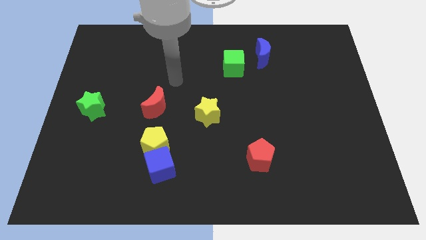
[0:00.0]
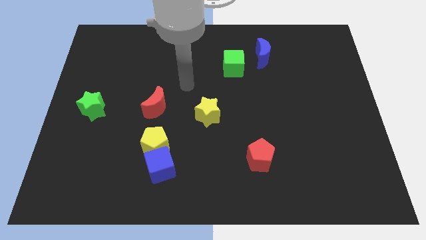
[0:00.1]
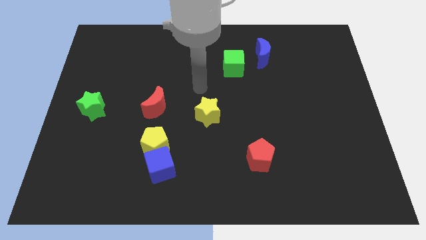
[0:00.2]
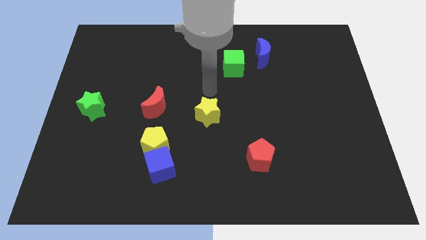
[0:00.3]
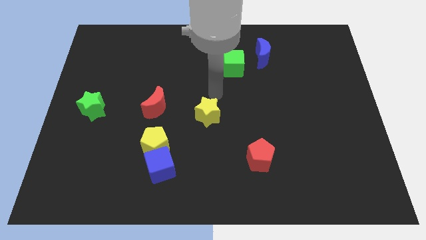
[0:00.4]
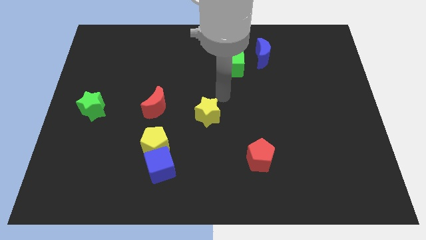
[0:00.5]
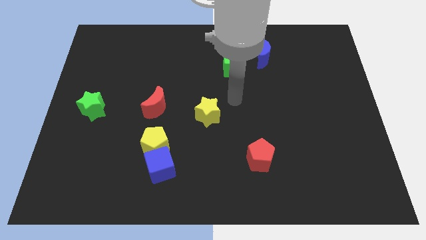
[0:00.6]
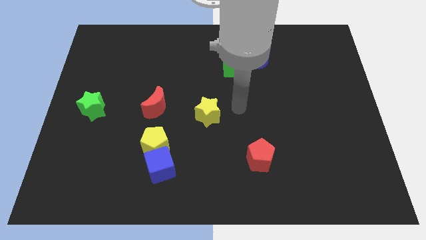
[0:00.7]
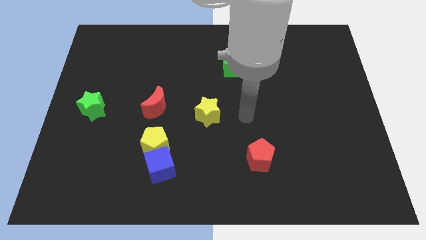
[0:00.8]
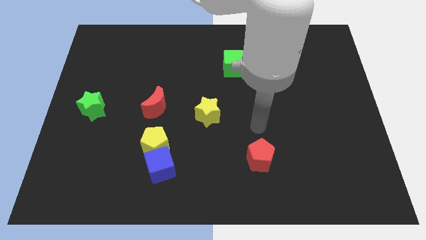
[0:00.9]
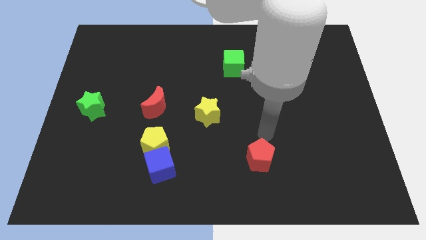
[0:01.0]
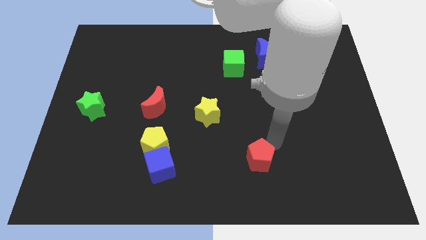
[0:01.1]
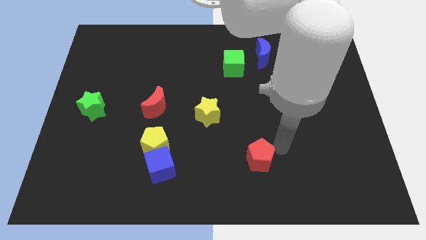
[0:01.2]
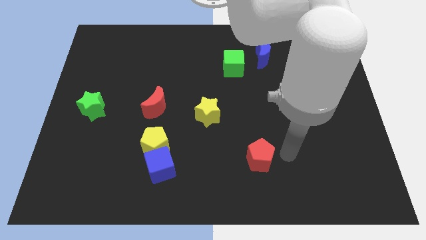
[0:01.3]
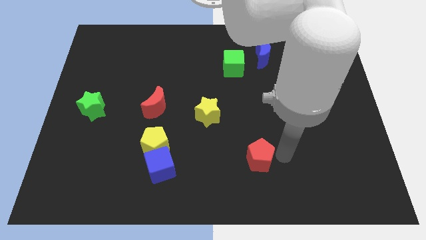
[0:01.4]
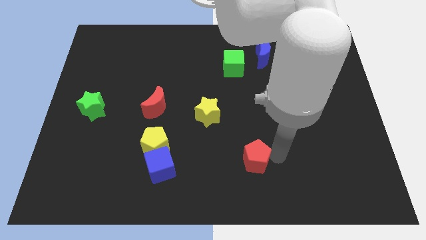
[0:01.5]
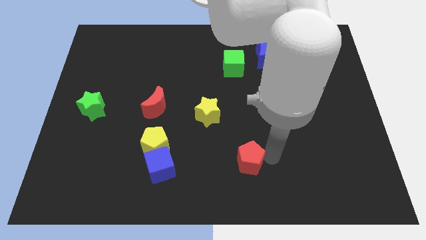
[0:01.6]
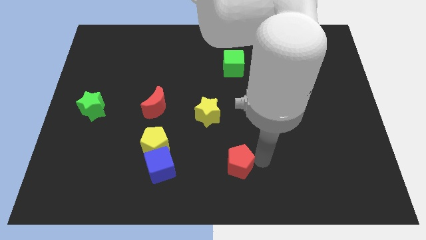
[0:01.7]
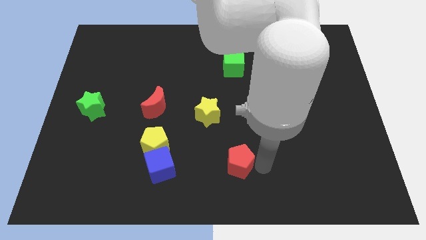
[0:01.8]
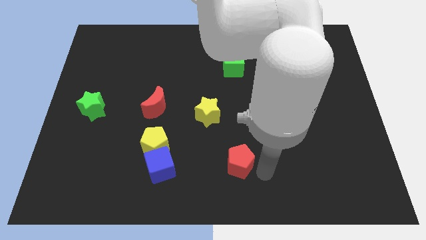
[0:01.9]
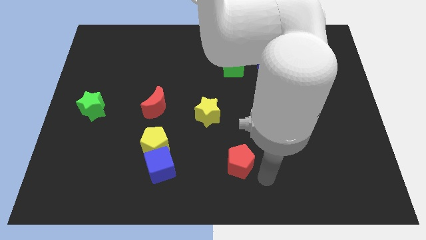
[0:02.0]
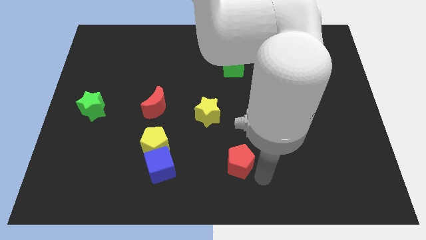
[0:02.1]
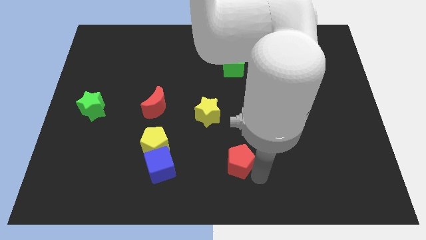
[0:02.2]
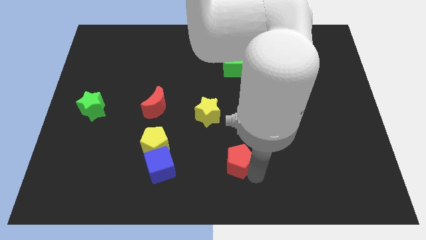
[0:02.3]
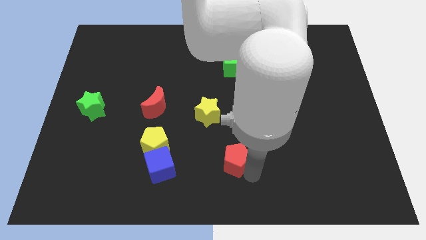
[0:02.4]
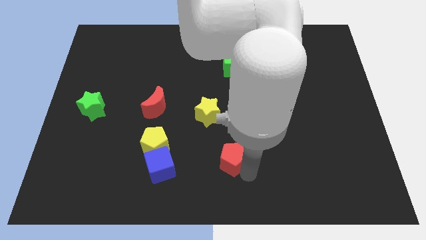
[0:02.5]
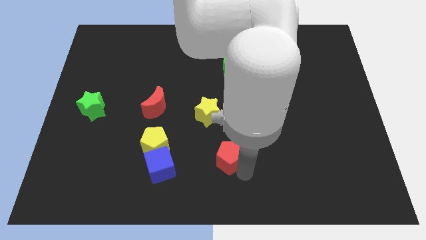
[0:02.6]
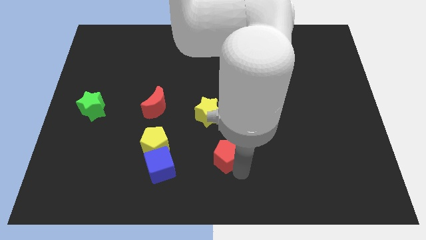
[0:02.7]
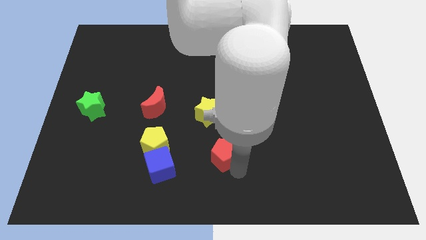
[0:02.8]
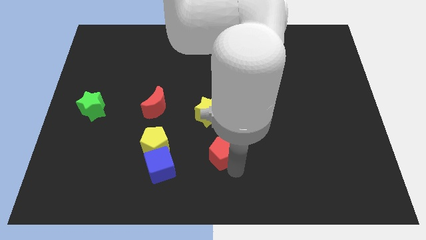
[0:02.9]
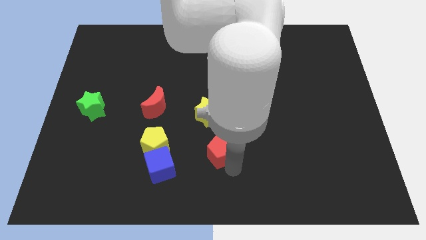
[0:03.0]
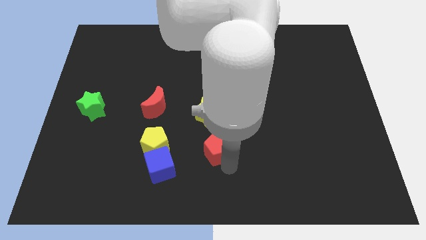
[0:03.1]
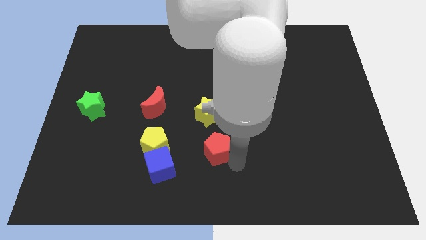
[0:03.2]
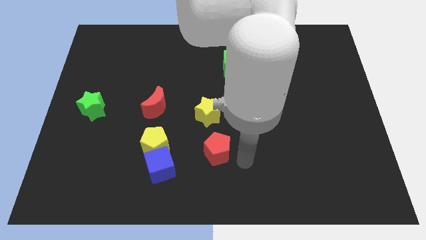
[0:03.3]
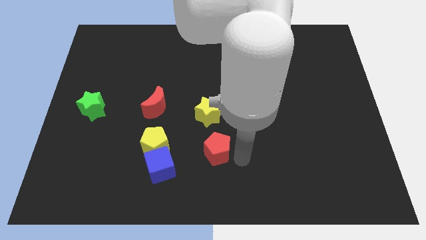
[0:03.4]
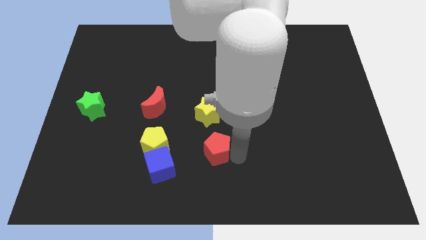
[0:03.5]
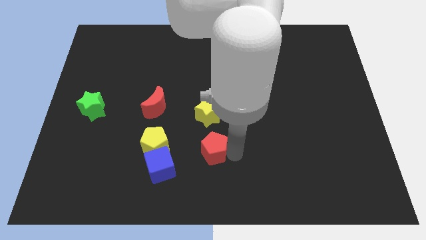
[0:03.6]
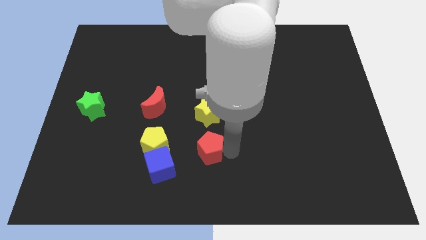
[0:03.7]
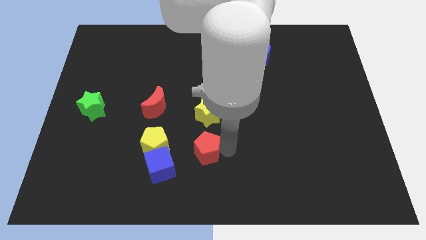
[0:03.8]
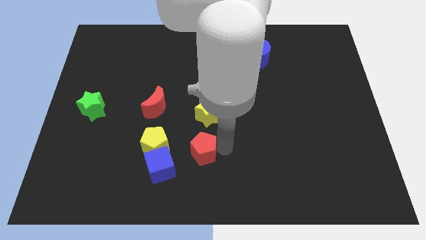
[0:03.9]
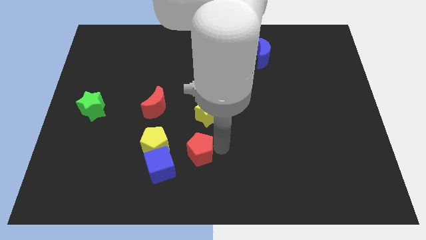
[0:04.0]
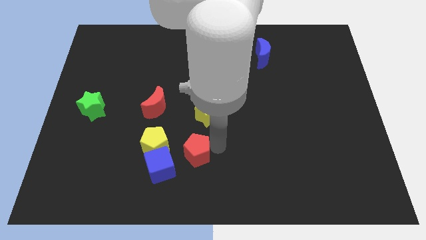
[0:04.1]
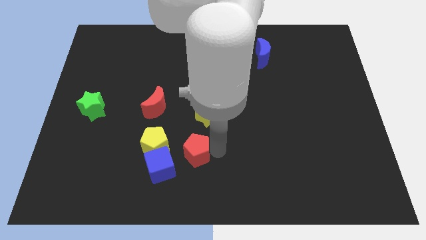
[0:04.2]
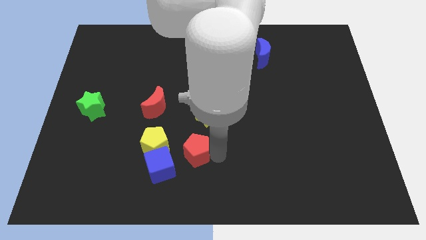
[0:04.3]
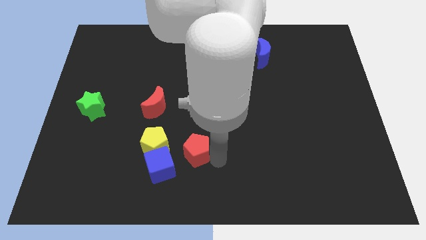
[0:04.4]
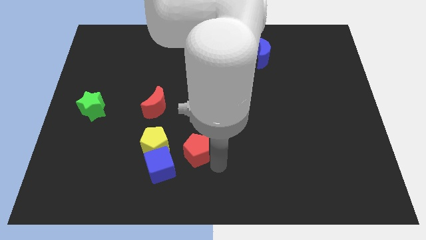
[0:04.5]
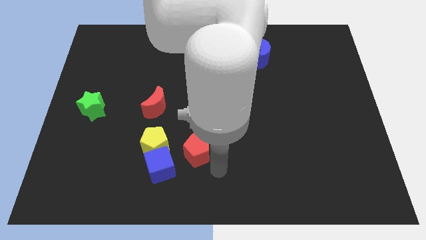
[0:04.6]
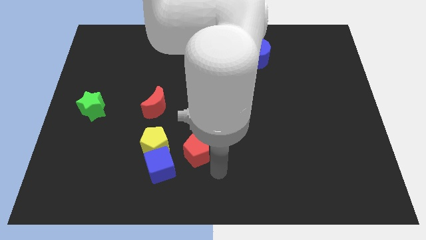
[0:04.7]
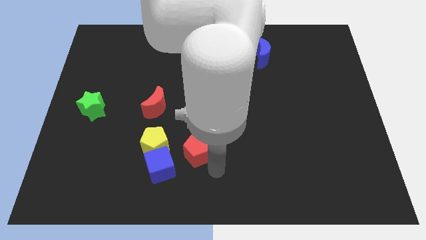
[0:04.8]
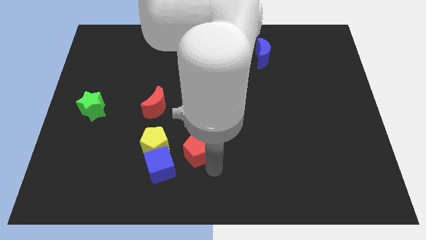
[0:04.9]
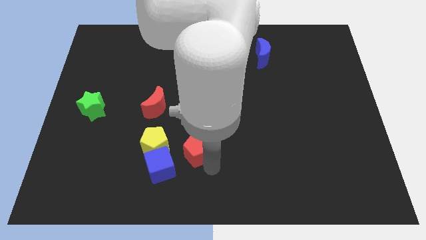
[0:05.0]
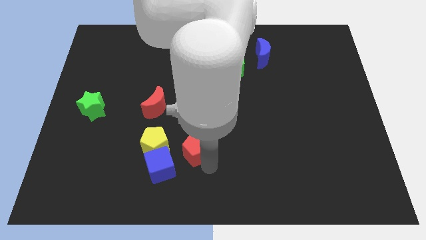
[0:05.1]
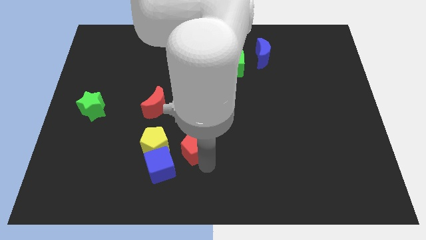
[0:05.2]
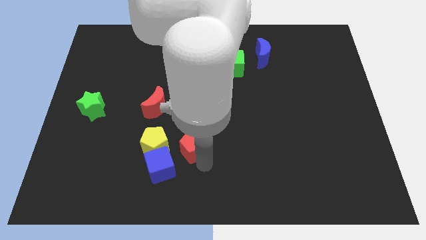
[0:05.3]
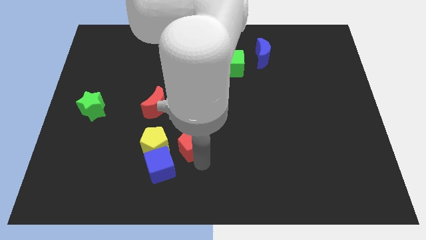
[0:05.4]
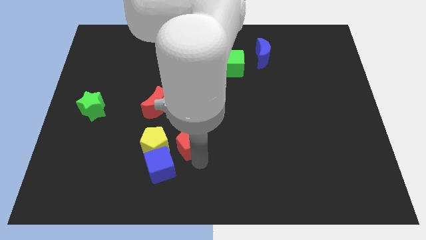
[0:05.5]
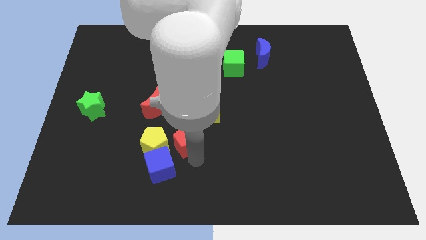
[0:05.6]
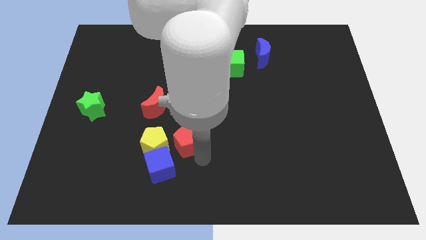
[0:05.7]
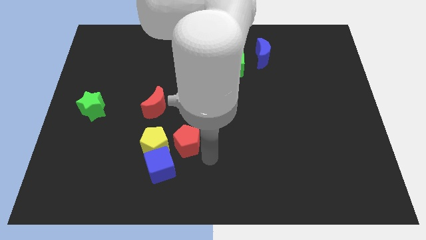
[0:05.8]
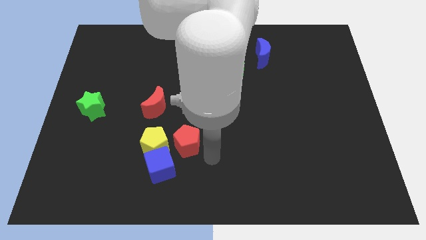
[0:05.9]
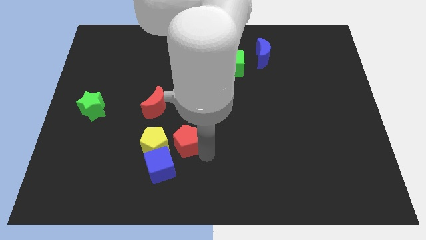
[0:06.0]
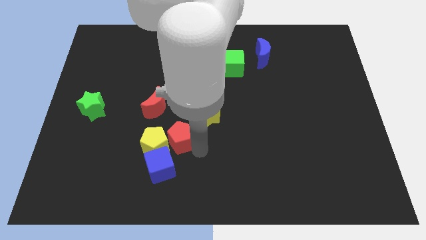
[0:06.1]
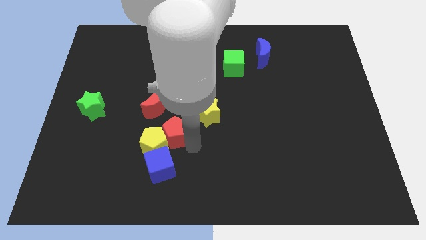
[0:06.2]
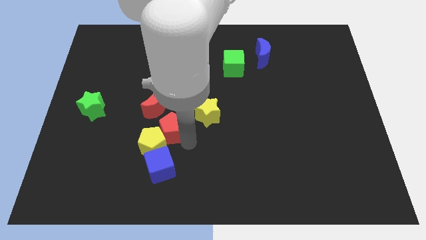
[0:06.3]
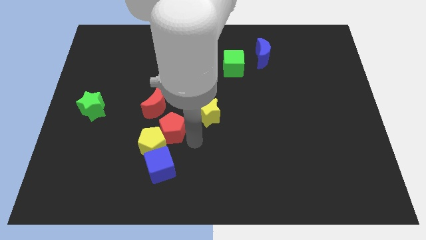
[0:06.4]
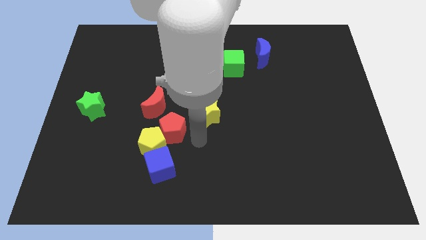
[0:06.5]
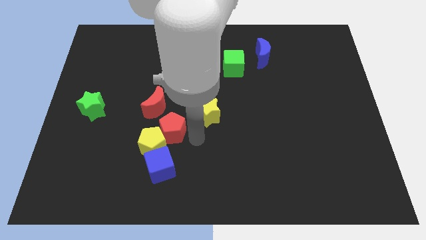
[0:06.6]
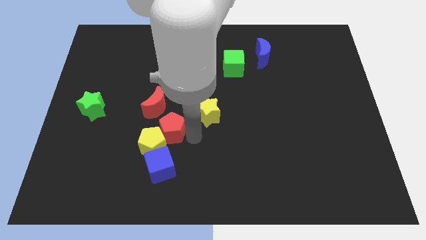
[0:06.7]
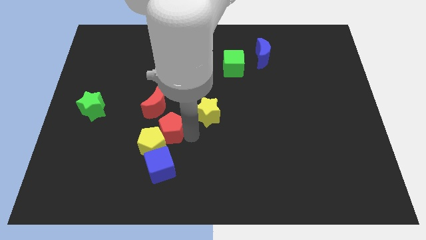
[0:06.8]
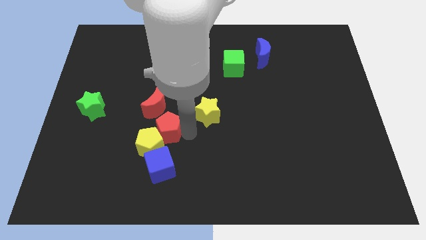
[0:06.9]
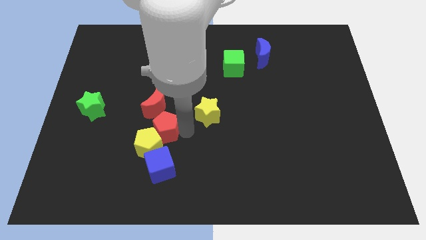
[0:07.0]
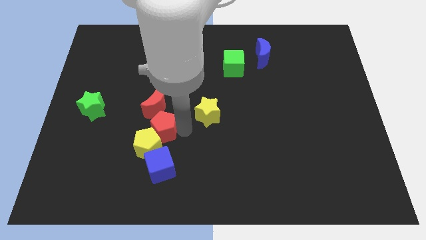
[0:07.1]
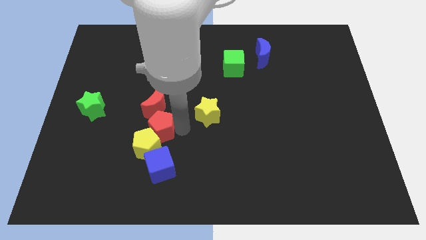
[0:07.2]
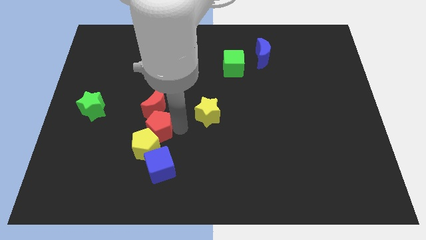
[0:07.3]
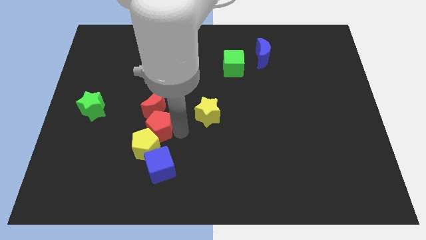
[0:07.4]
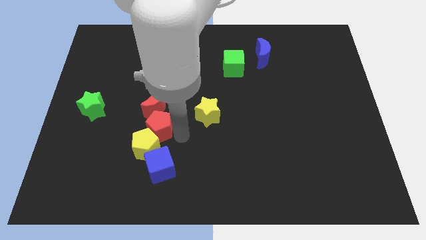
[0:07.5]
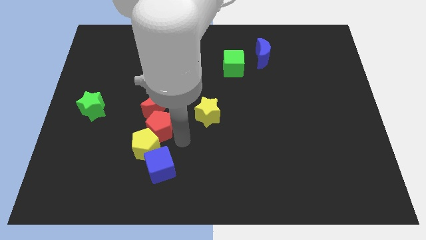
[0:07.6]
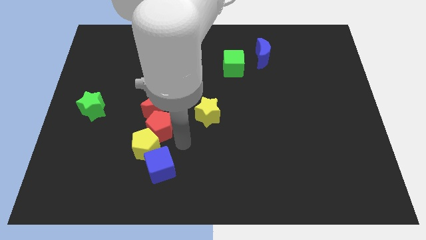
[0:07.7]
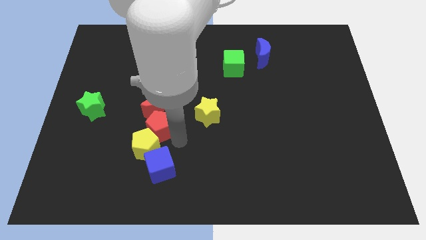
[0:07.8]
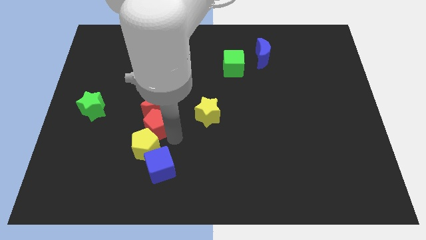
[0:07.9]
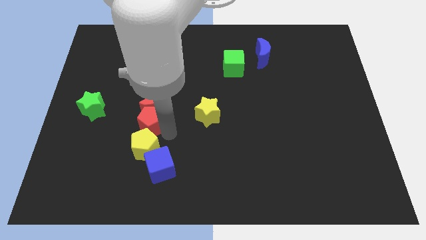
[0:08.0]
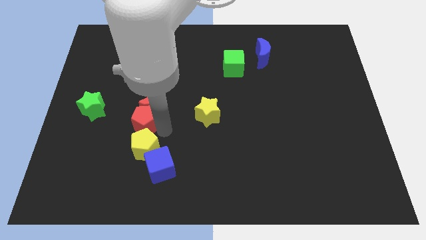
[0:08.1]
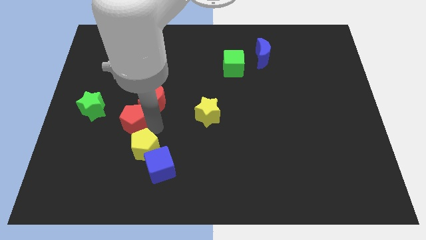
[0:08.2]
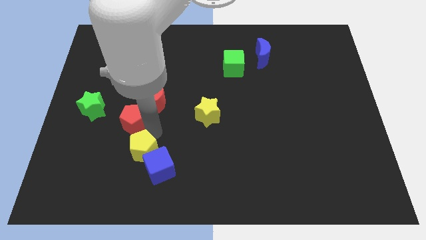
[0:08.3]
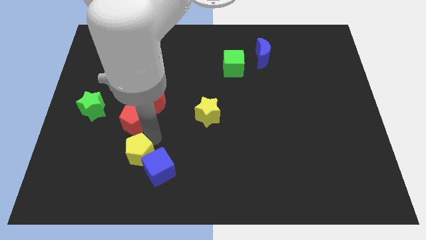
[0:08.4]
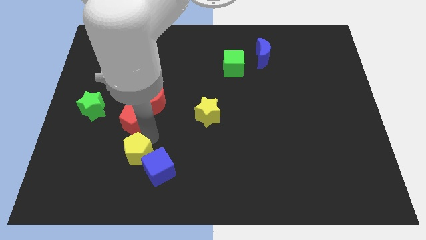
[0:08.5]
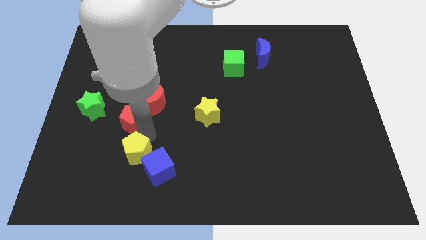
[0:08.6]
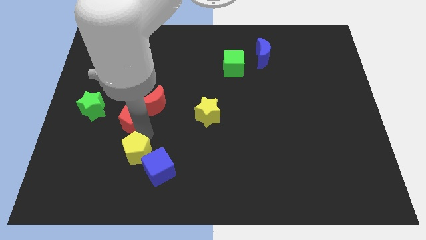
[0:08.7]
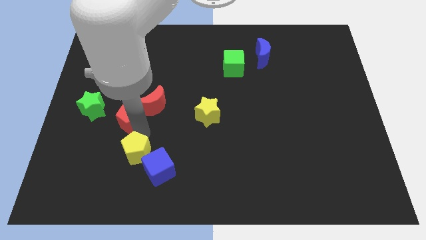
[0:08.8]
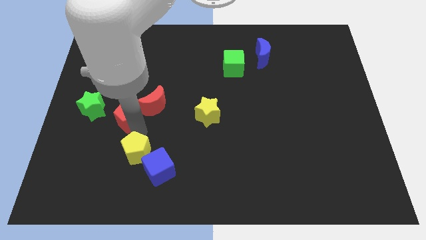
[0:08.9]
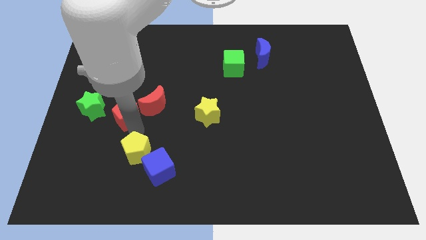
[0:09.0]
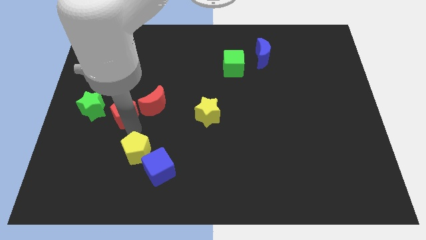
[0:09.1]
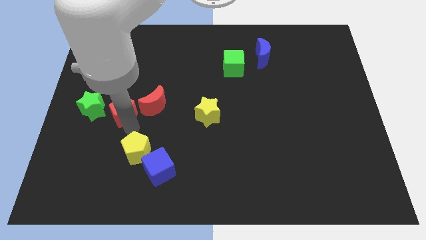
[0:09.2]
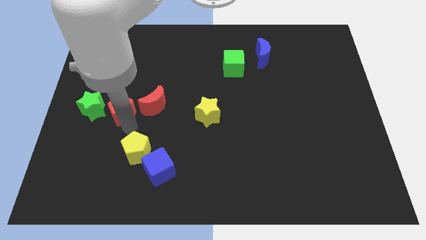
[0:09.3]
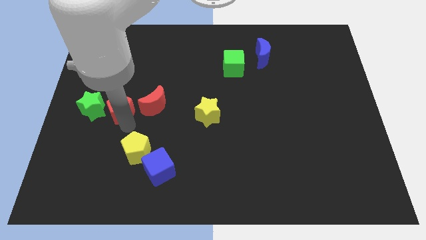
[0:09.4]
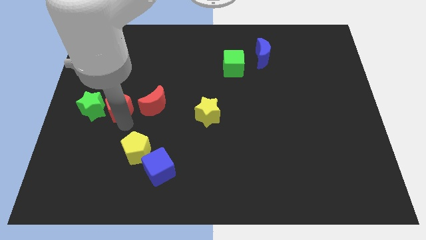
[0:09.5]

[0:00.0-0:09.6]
move the red pentagon to the green star
